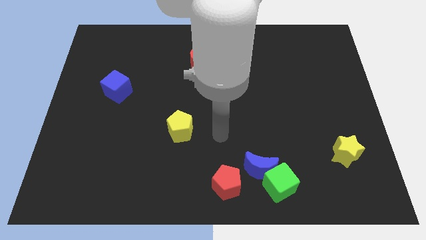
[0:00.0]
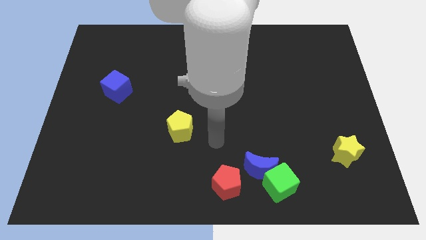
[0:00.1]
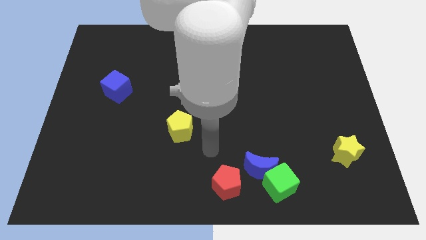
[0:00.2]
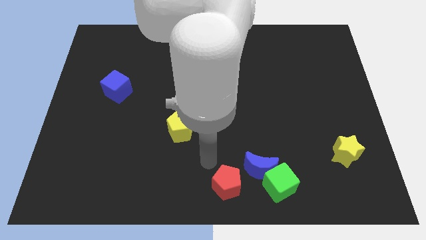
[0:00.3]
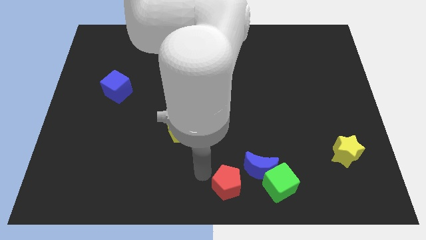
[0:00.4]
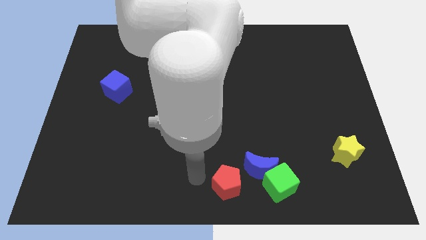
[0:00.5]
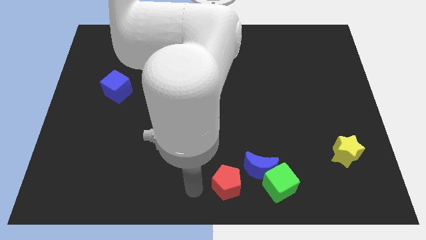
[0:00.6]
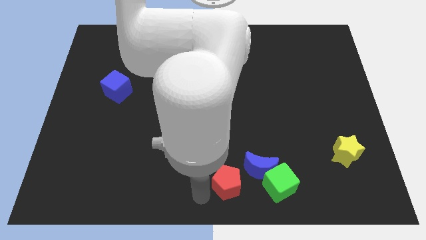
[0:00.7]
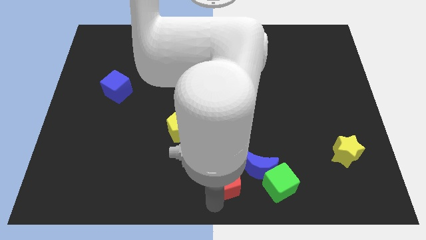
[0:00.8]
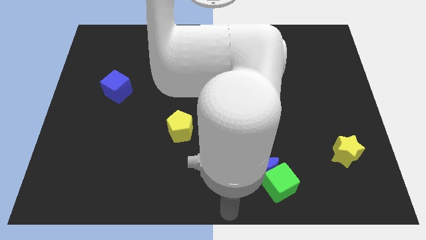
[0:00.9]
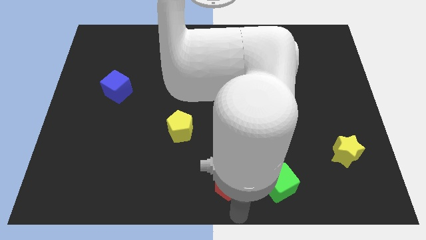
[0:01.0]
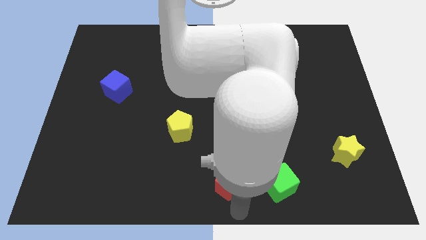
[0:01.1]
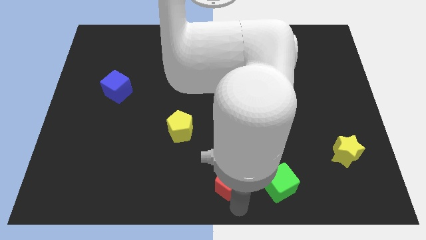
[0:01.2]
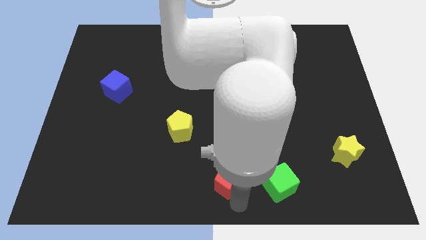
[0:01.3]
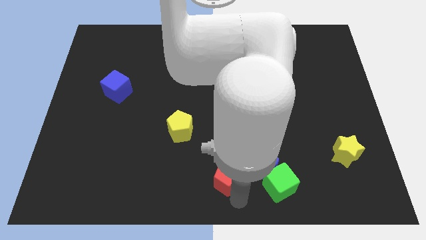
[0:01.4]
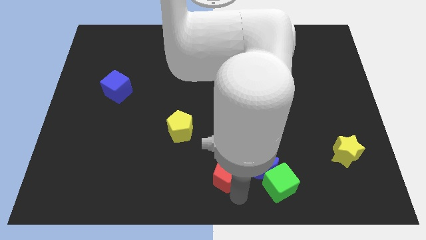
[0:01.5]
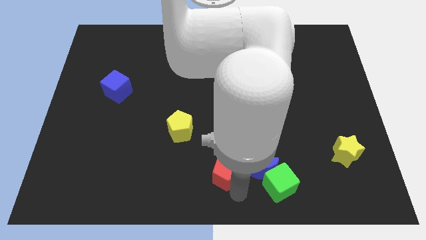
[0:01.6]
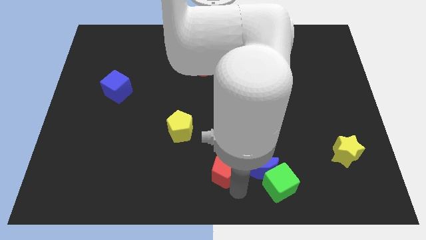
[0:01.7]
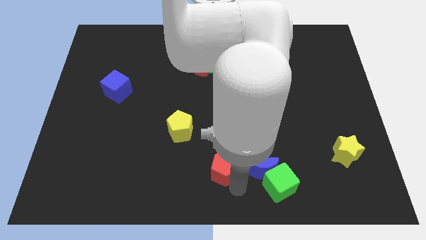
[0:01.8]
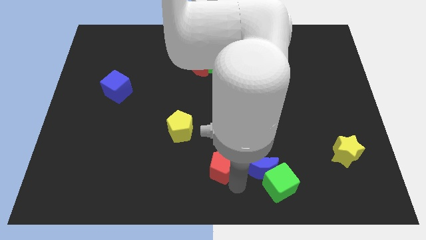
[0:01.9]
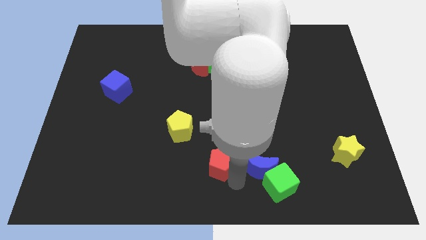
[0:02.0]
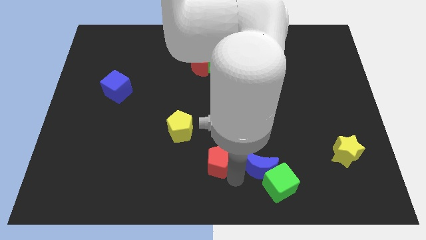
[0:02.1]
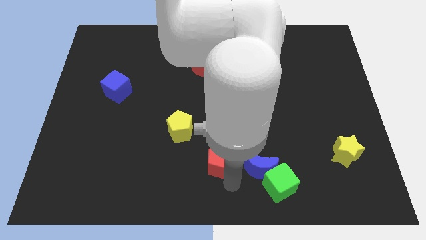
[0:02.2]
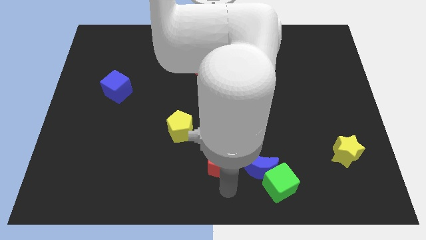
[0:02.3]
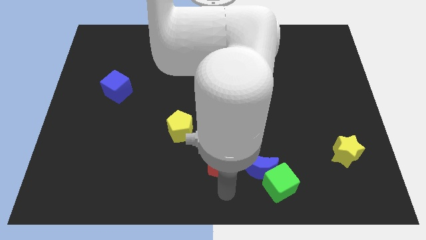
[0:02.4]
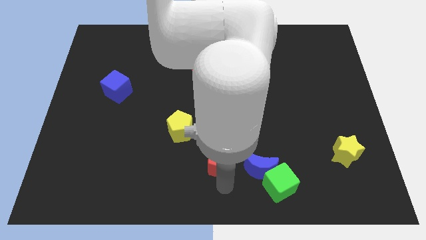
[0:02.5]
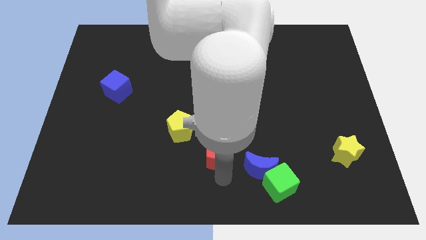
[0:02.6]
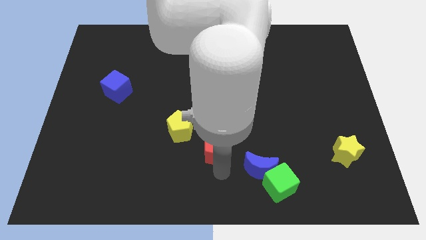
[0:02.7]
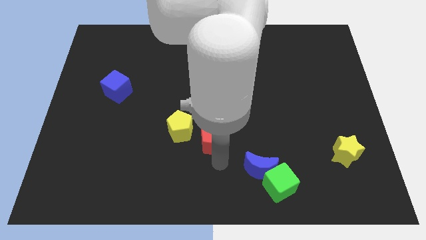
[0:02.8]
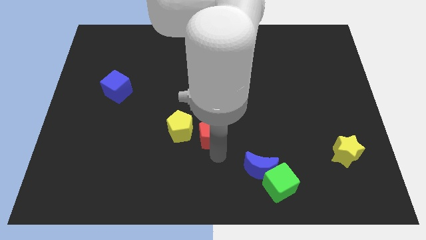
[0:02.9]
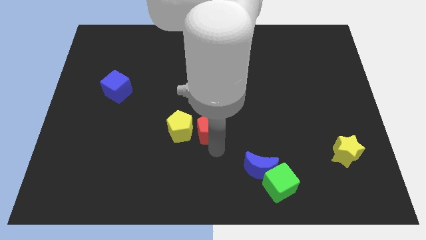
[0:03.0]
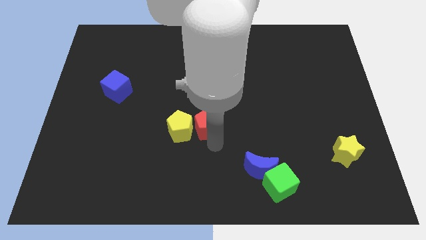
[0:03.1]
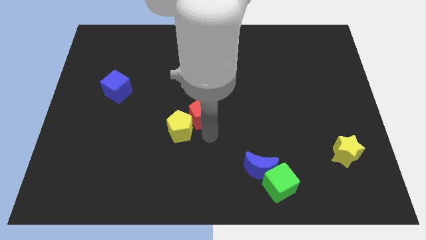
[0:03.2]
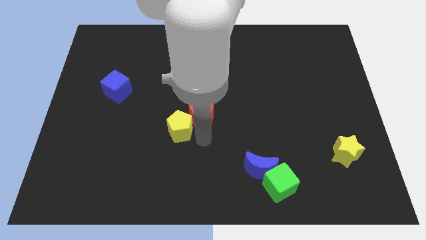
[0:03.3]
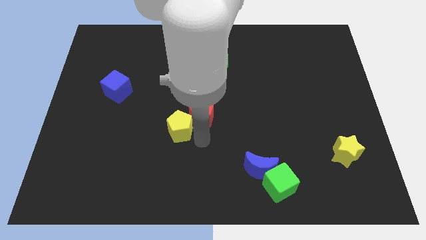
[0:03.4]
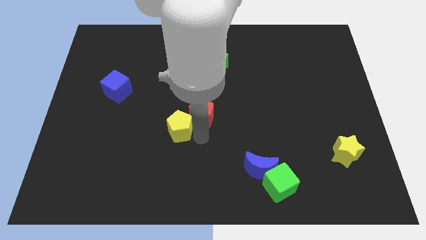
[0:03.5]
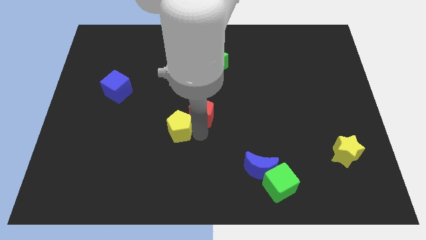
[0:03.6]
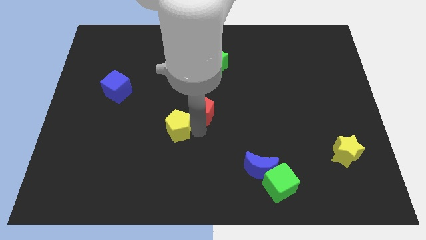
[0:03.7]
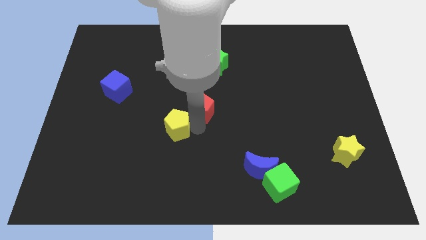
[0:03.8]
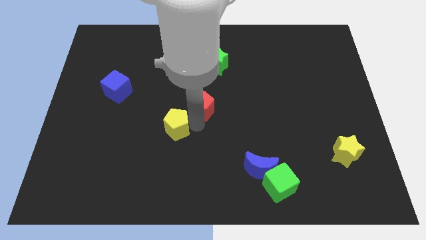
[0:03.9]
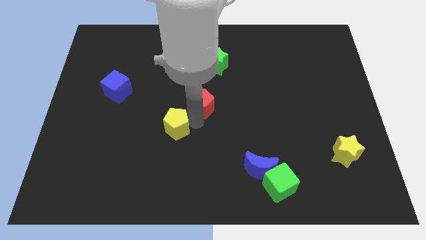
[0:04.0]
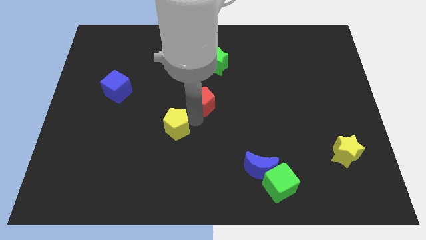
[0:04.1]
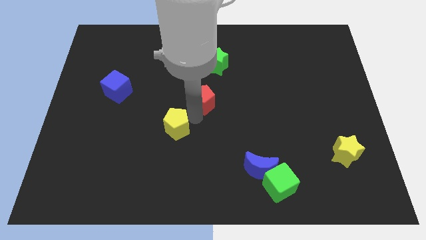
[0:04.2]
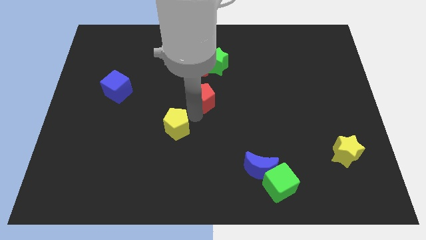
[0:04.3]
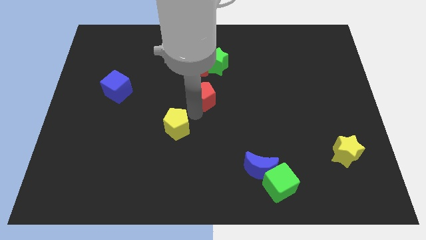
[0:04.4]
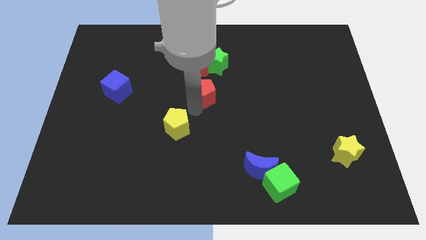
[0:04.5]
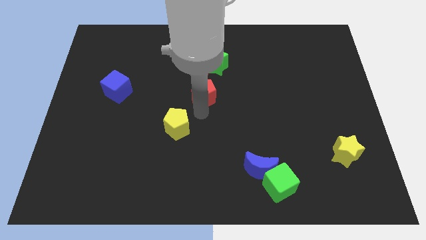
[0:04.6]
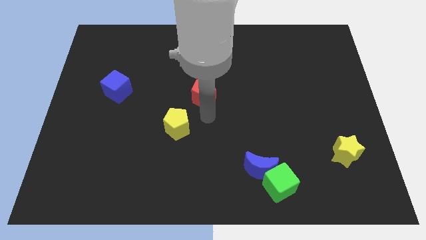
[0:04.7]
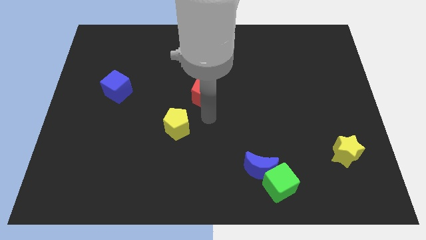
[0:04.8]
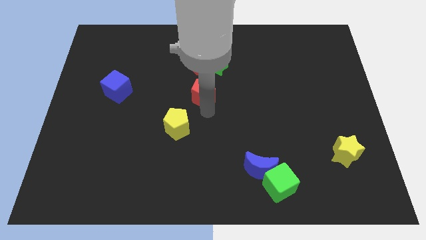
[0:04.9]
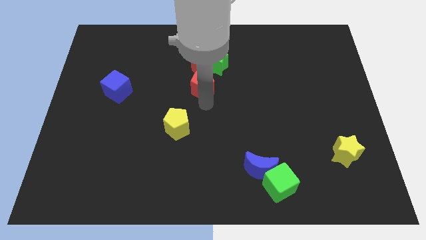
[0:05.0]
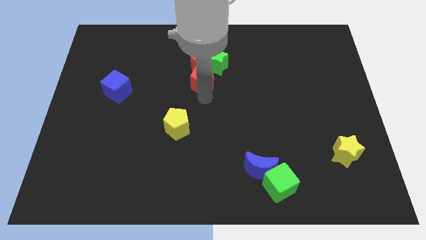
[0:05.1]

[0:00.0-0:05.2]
put the red pentagon to the red moon

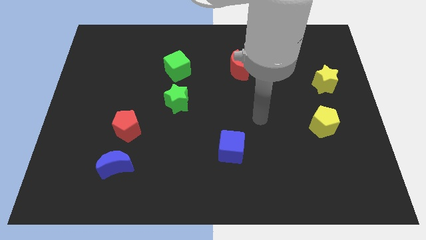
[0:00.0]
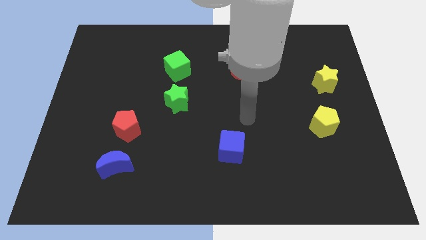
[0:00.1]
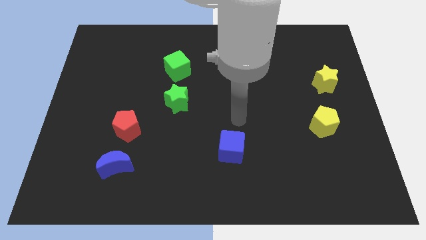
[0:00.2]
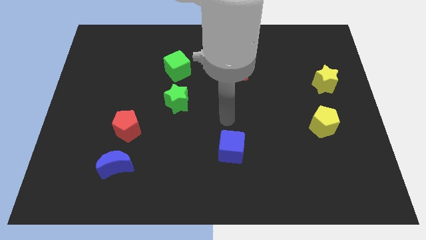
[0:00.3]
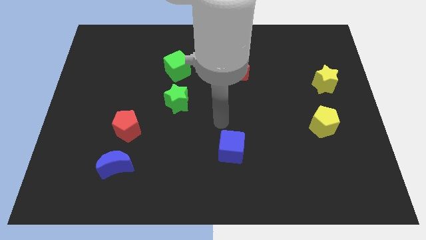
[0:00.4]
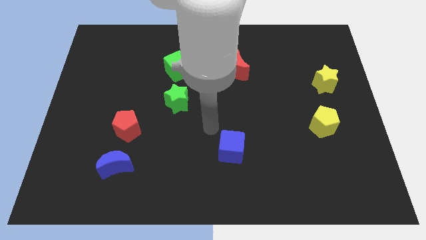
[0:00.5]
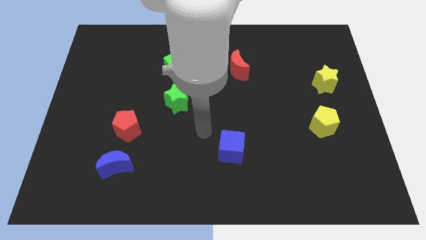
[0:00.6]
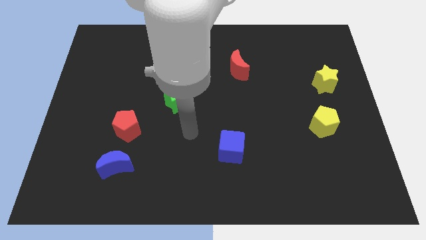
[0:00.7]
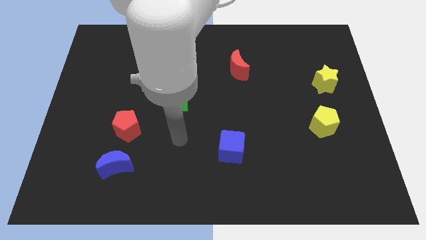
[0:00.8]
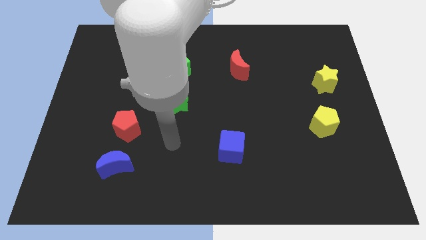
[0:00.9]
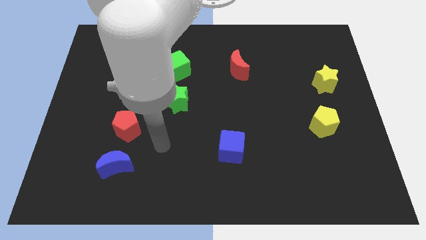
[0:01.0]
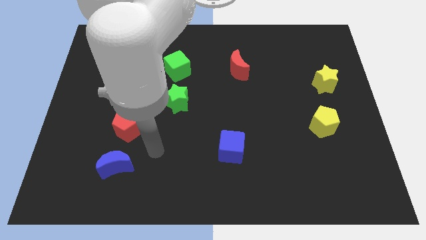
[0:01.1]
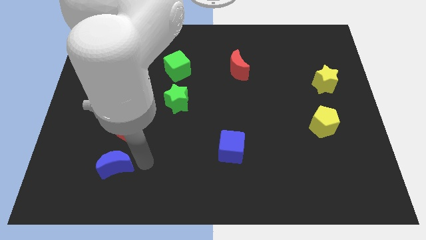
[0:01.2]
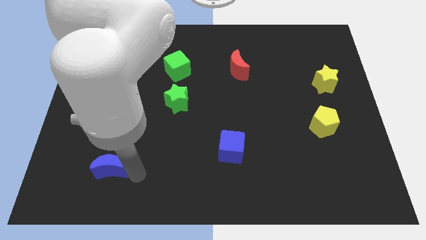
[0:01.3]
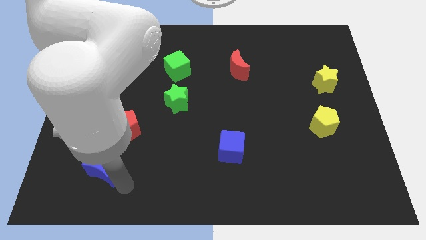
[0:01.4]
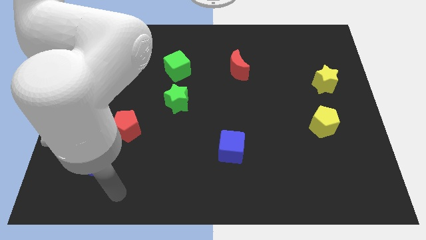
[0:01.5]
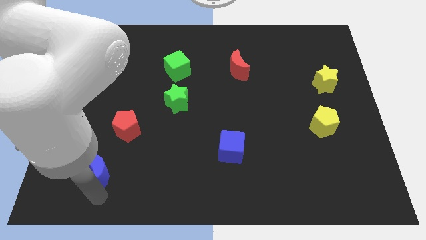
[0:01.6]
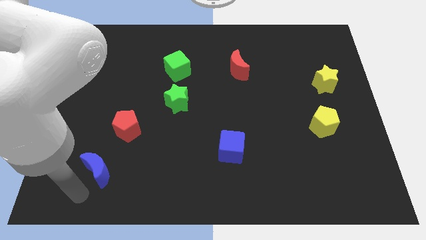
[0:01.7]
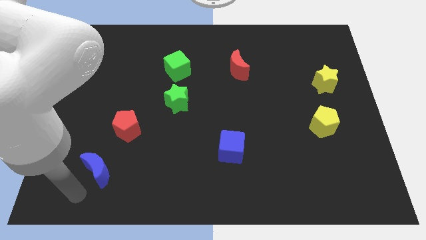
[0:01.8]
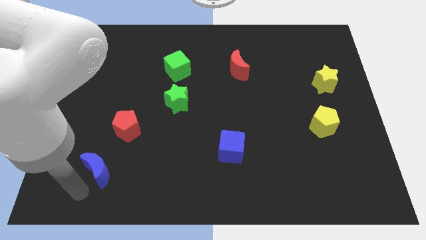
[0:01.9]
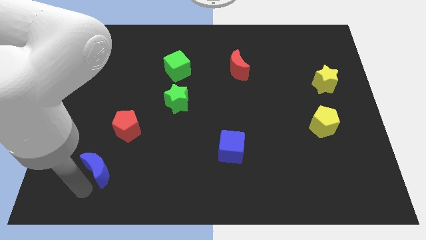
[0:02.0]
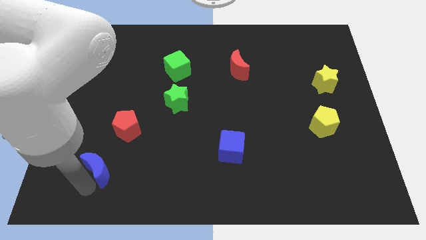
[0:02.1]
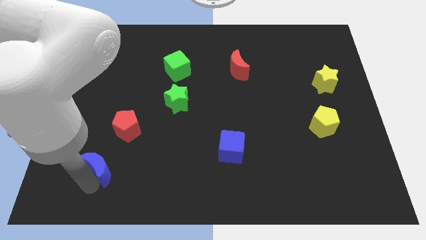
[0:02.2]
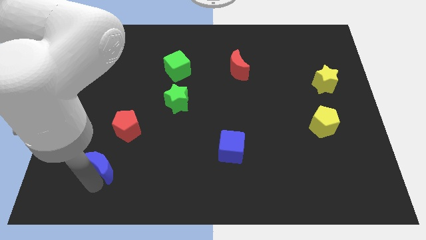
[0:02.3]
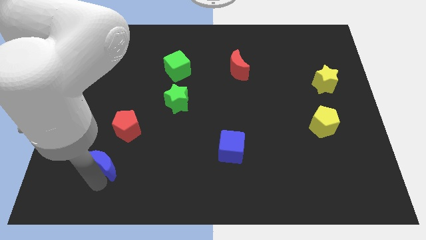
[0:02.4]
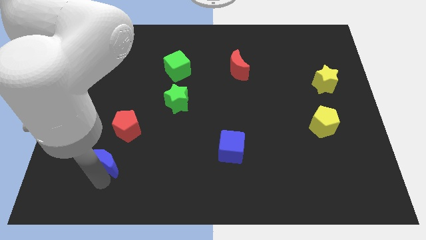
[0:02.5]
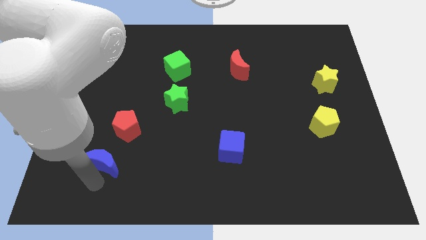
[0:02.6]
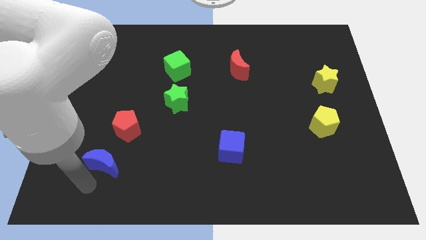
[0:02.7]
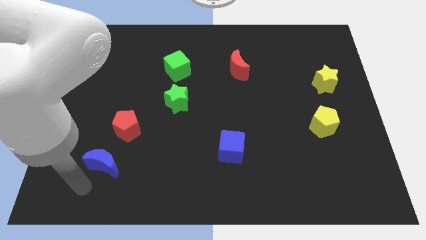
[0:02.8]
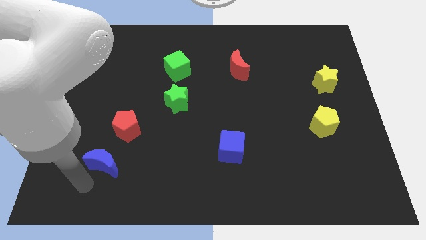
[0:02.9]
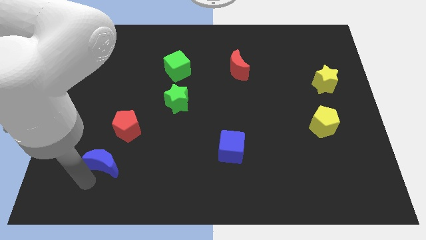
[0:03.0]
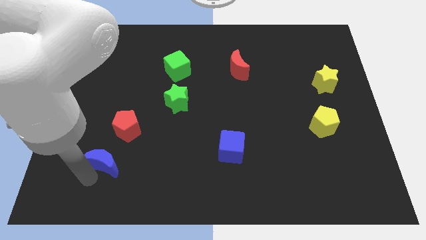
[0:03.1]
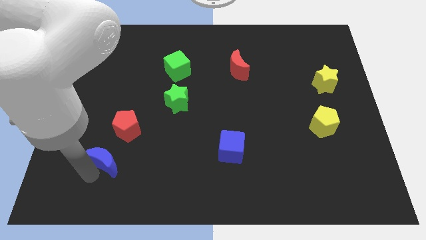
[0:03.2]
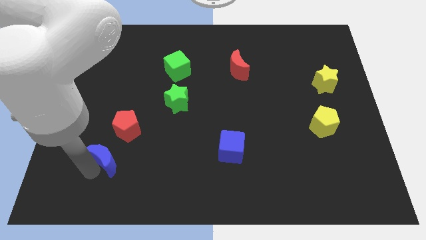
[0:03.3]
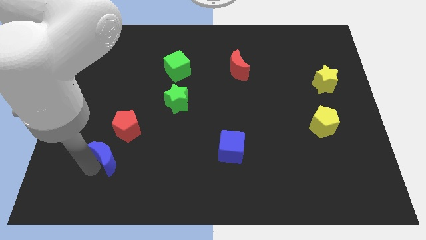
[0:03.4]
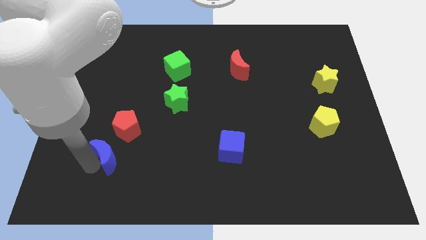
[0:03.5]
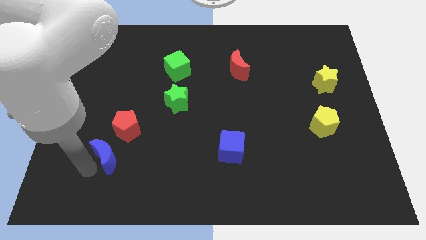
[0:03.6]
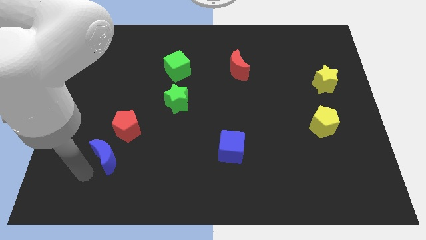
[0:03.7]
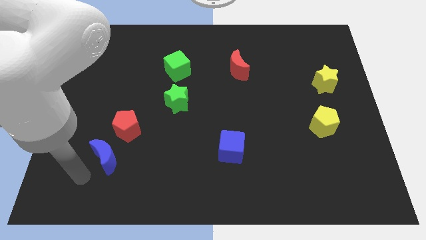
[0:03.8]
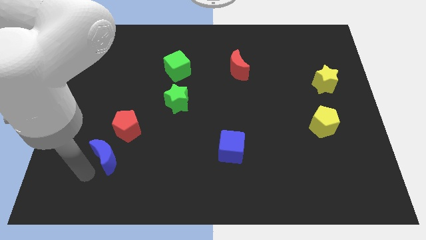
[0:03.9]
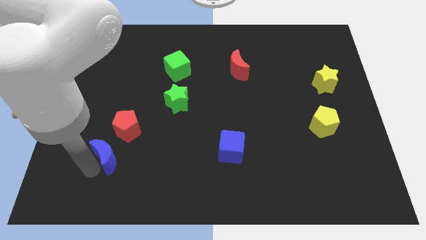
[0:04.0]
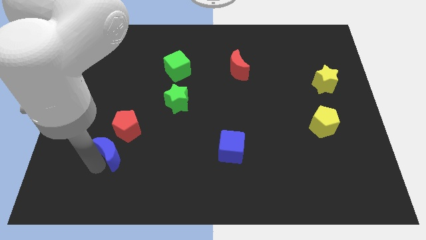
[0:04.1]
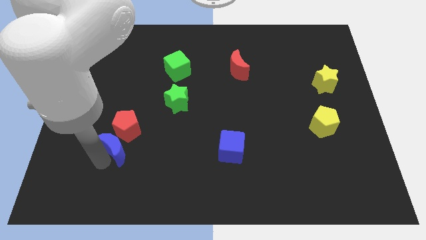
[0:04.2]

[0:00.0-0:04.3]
slide the blue moon next to the red pentagon
